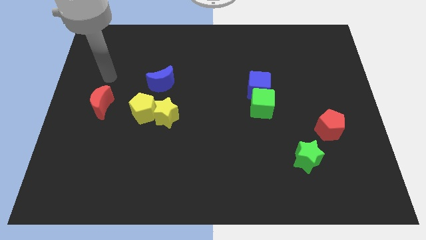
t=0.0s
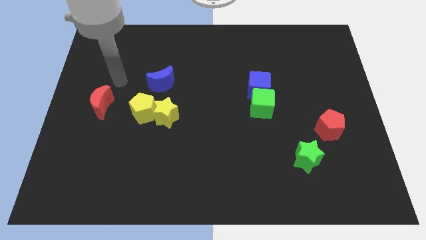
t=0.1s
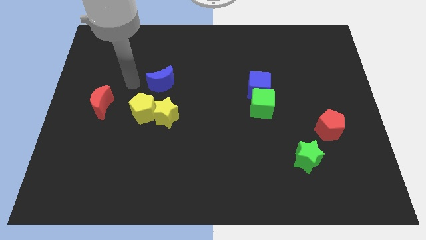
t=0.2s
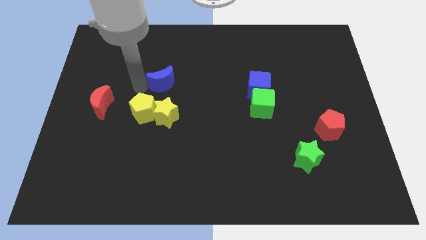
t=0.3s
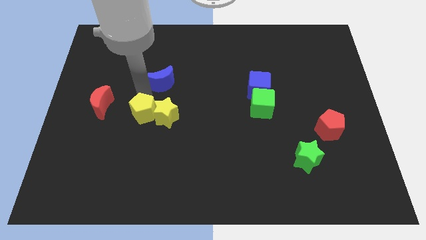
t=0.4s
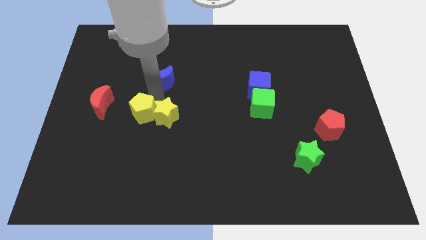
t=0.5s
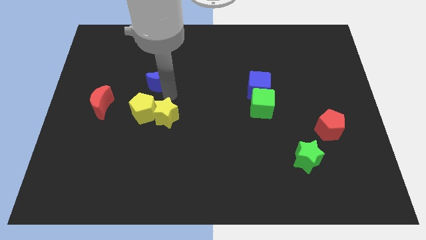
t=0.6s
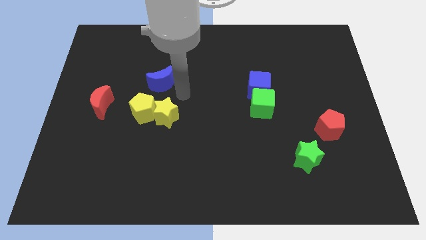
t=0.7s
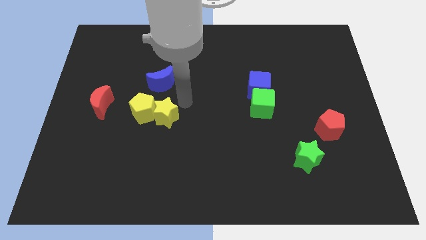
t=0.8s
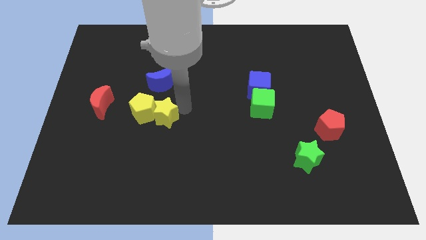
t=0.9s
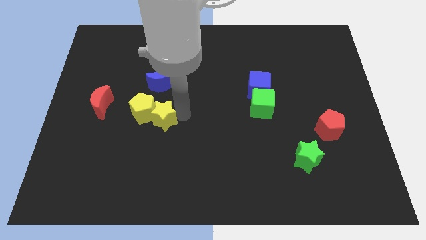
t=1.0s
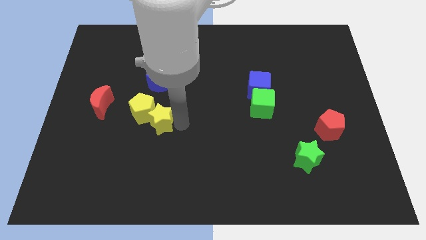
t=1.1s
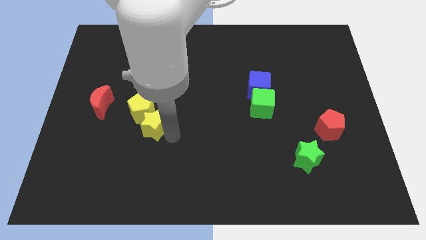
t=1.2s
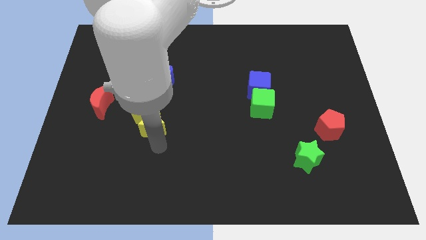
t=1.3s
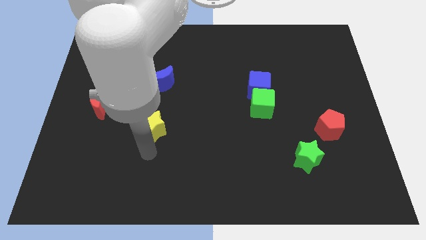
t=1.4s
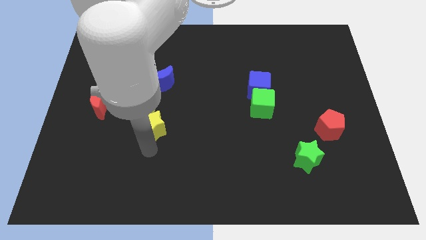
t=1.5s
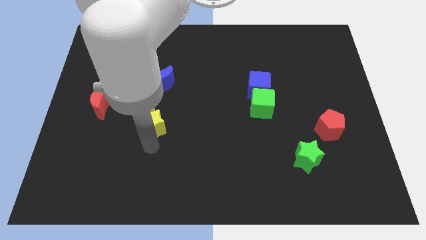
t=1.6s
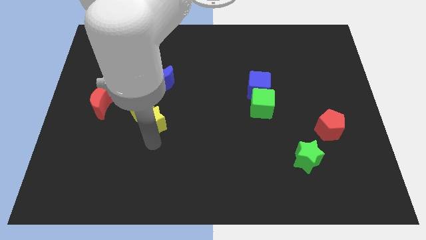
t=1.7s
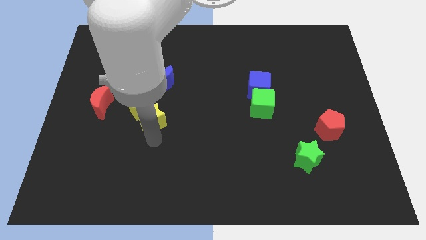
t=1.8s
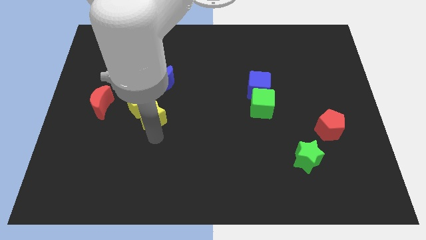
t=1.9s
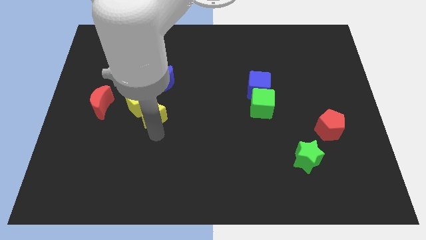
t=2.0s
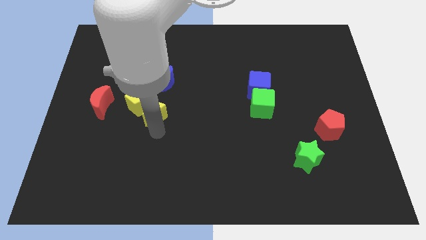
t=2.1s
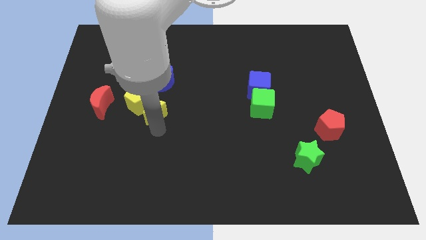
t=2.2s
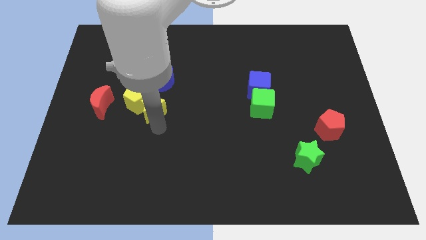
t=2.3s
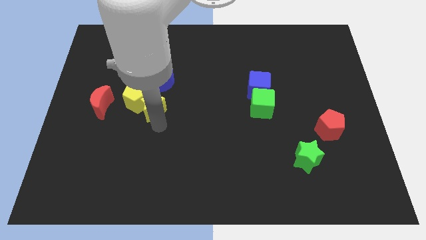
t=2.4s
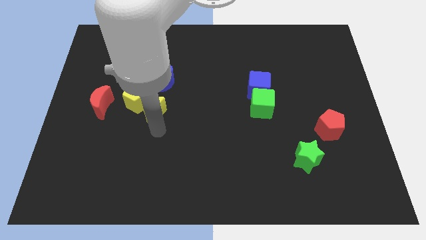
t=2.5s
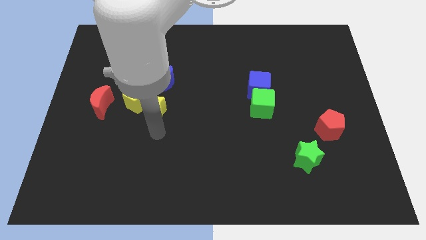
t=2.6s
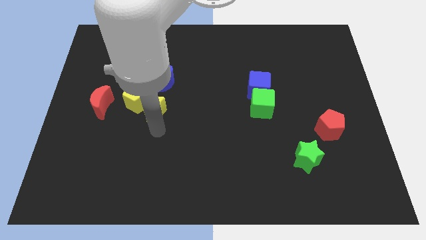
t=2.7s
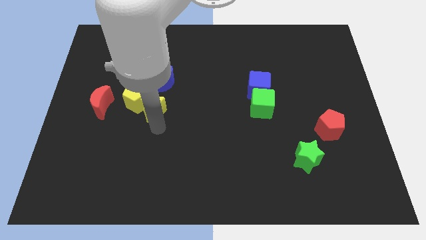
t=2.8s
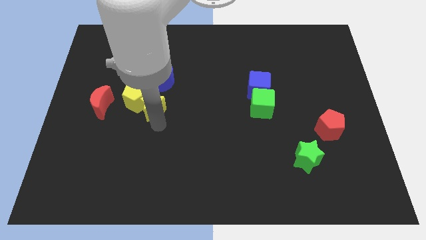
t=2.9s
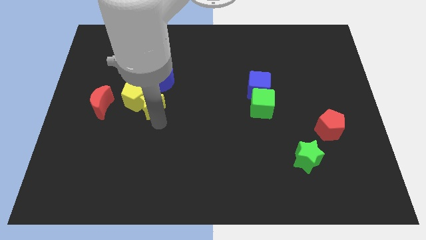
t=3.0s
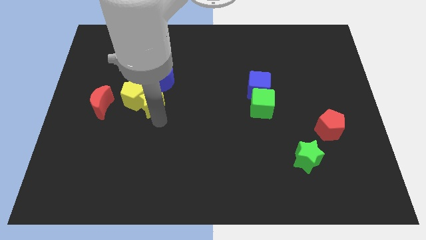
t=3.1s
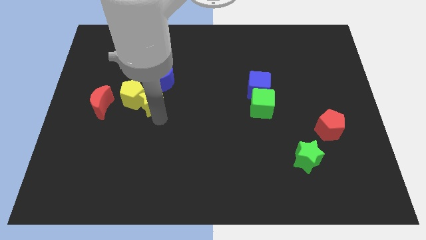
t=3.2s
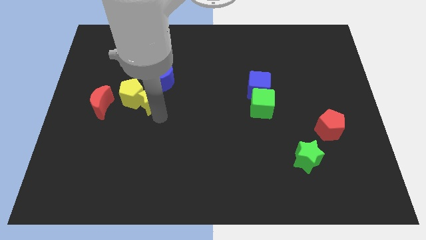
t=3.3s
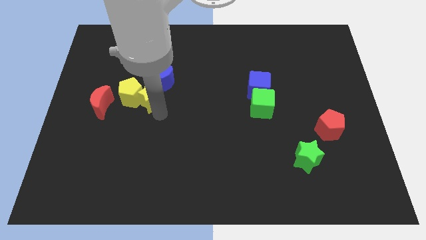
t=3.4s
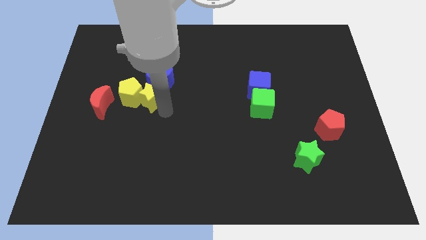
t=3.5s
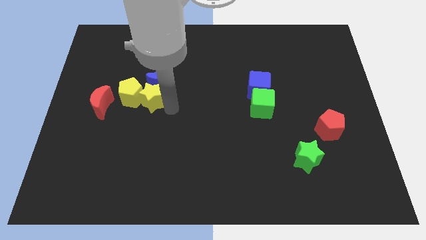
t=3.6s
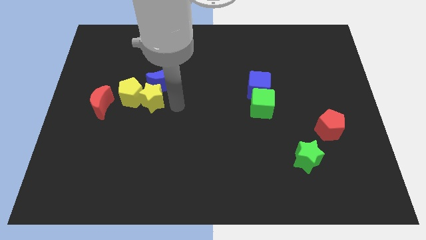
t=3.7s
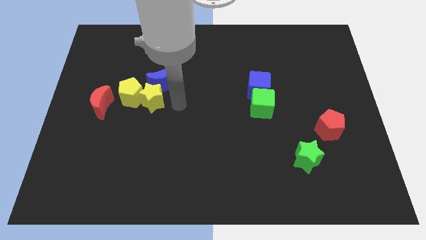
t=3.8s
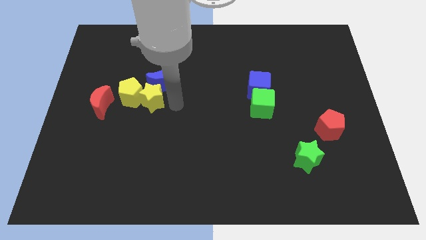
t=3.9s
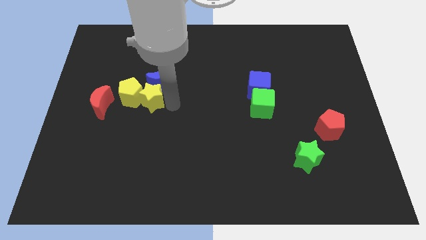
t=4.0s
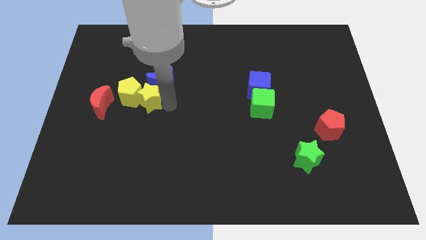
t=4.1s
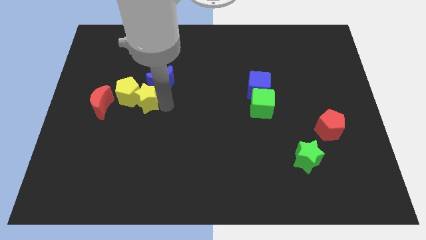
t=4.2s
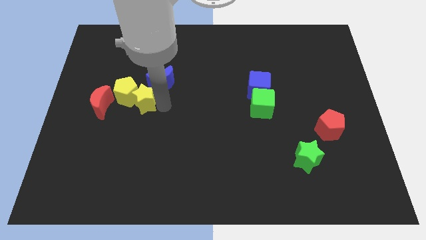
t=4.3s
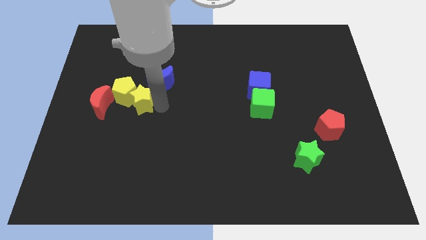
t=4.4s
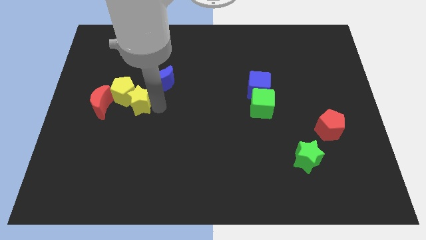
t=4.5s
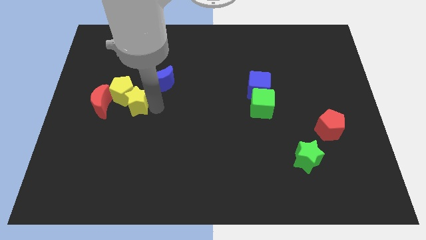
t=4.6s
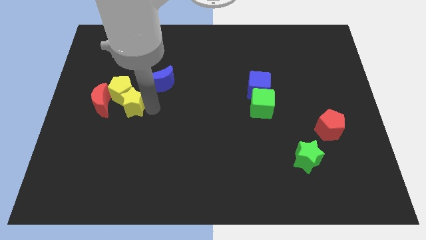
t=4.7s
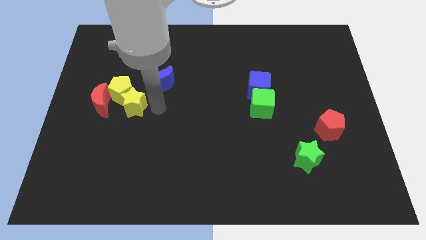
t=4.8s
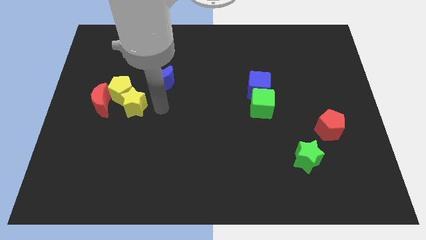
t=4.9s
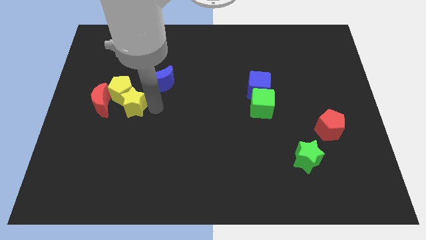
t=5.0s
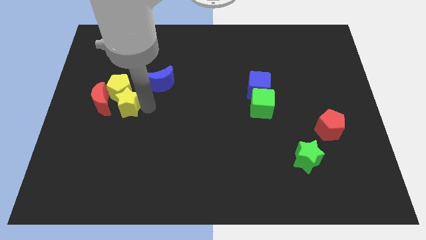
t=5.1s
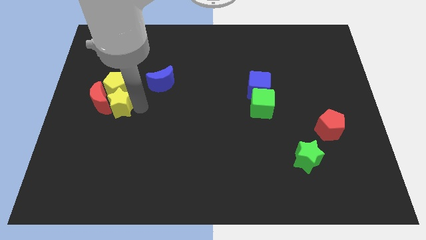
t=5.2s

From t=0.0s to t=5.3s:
slide the yellow star towards the red moon
